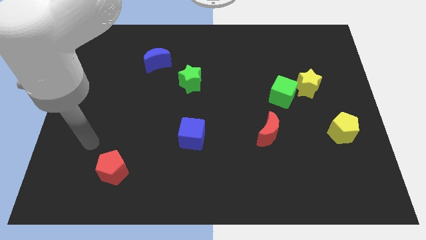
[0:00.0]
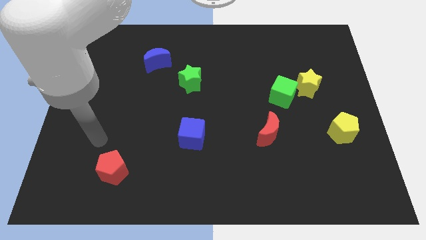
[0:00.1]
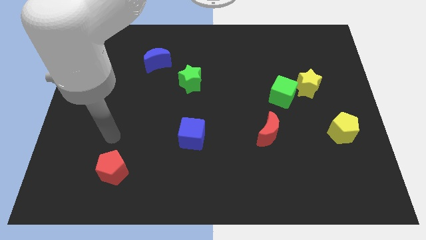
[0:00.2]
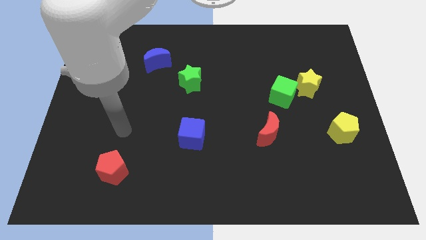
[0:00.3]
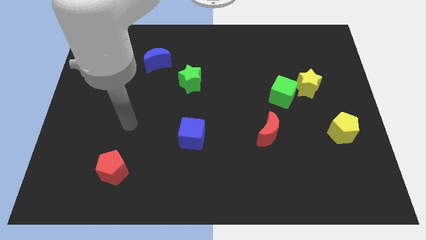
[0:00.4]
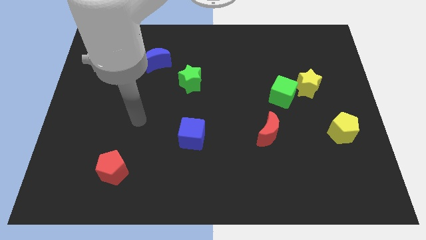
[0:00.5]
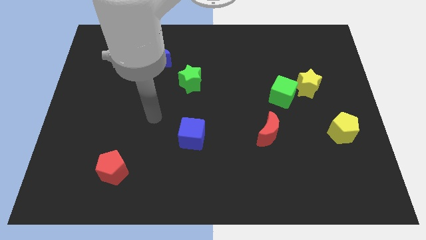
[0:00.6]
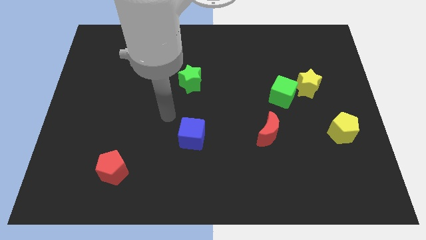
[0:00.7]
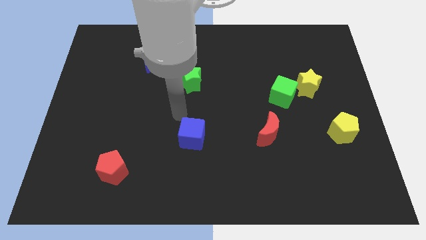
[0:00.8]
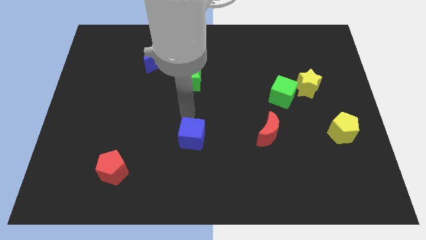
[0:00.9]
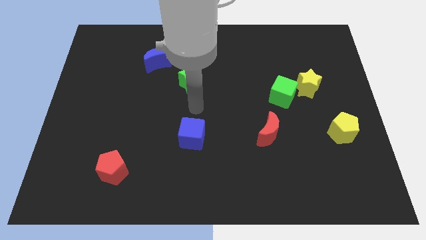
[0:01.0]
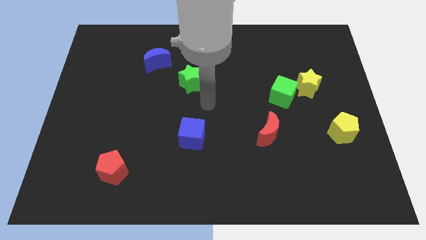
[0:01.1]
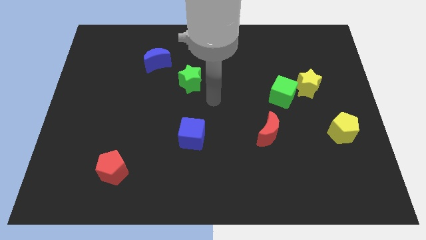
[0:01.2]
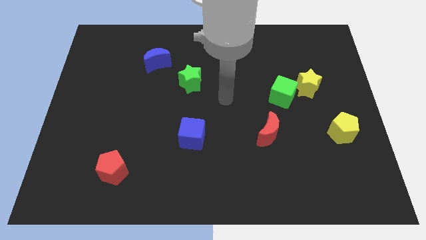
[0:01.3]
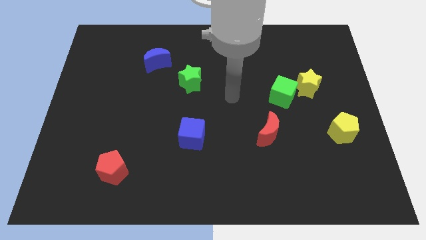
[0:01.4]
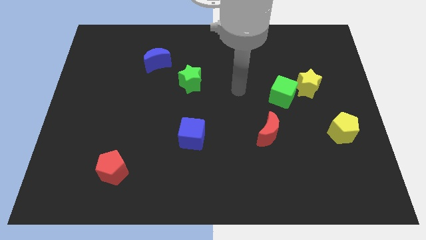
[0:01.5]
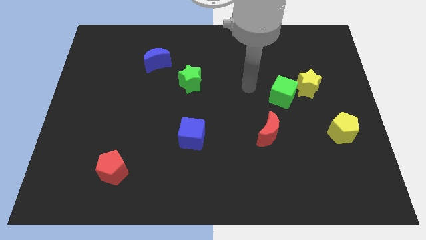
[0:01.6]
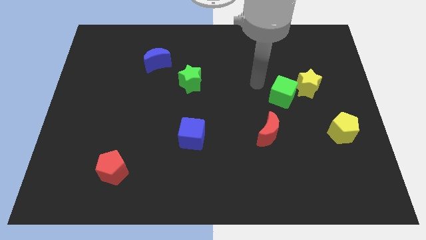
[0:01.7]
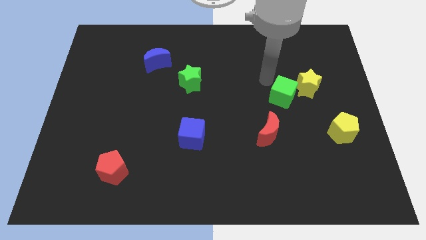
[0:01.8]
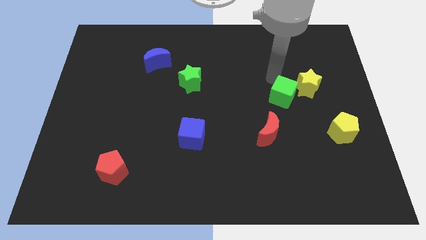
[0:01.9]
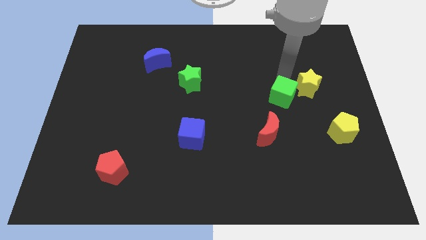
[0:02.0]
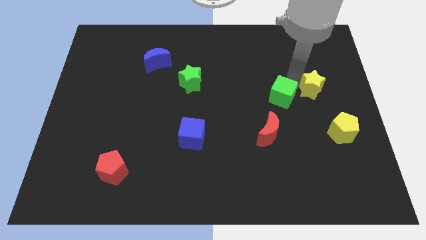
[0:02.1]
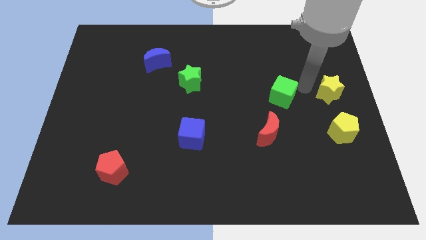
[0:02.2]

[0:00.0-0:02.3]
separate the green cube from the yellow star

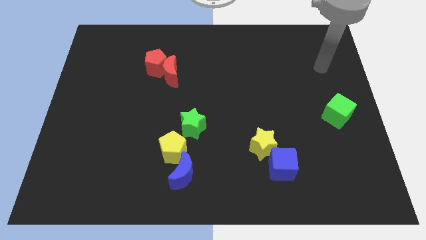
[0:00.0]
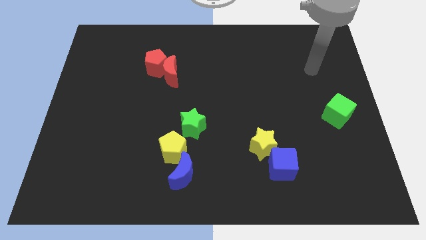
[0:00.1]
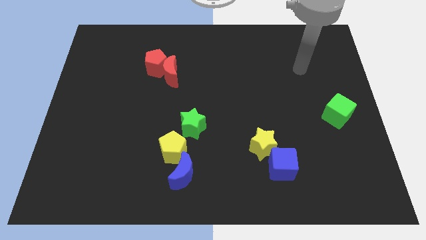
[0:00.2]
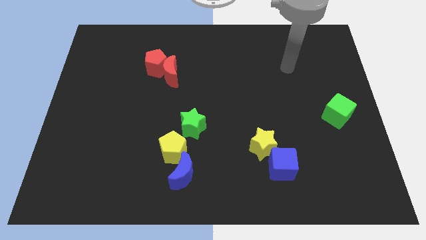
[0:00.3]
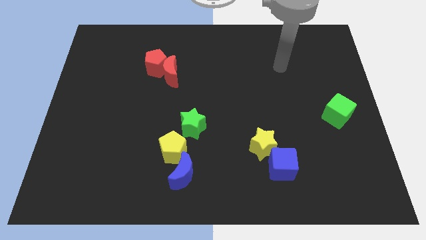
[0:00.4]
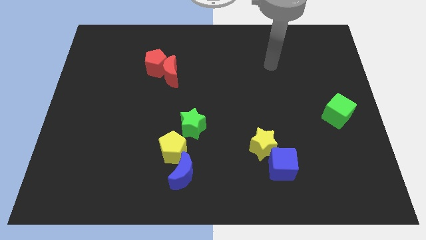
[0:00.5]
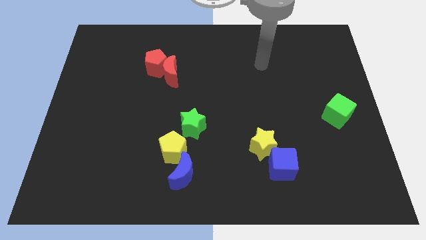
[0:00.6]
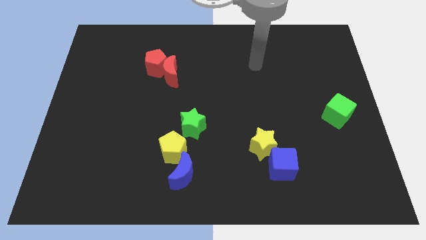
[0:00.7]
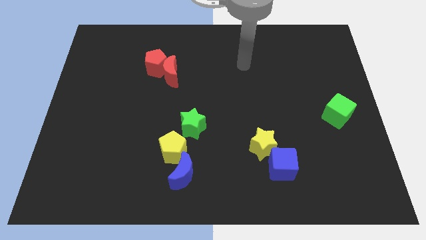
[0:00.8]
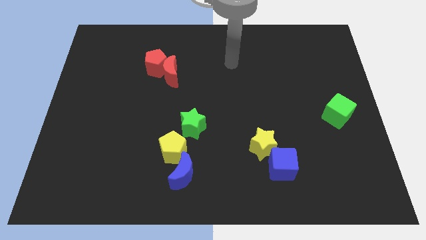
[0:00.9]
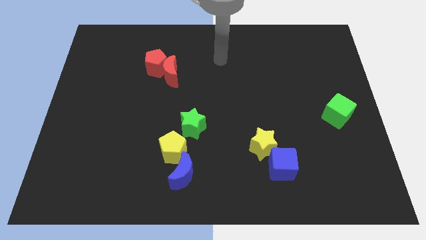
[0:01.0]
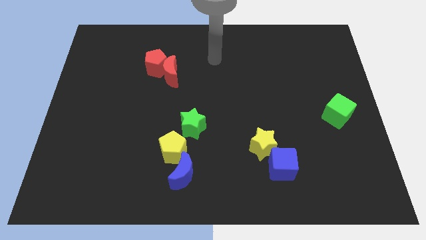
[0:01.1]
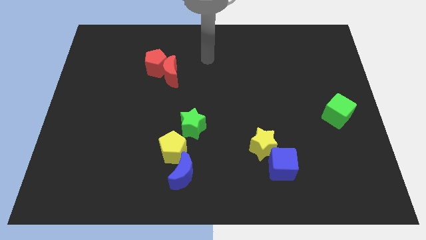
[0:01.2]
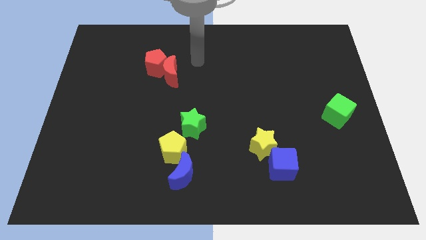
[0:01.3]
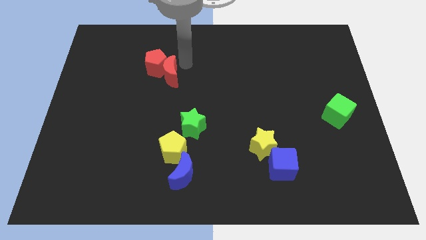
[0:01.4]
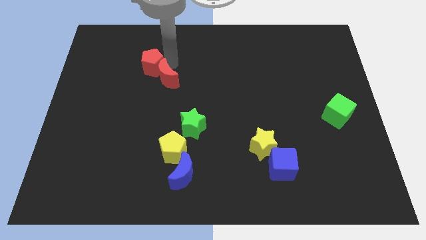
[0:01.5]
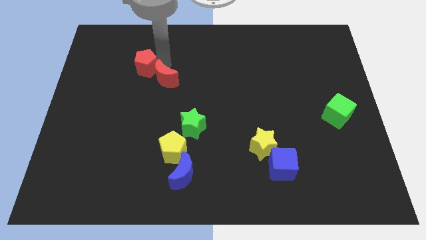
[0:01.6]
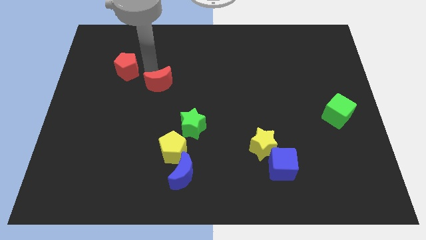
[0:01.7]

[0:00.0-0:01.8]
move the red moon away from the red pentagon

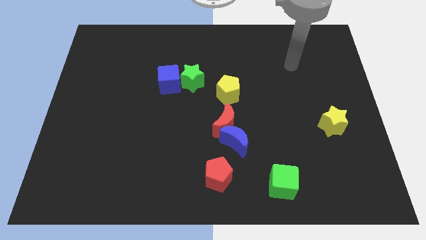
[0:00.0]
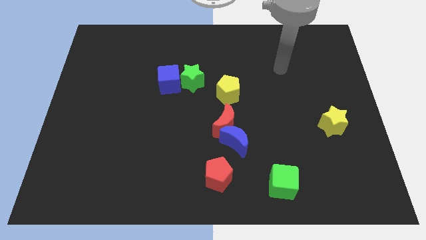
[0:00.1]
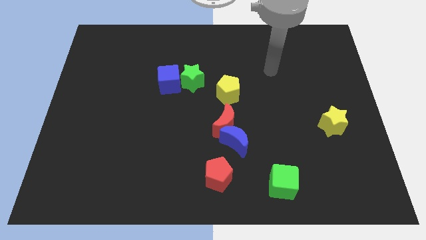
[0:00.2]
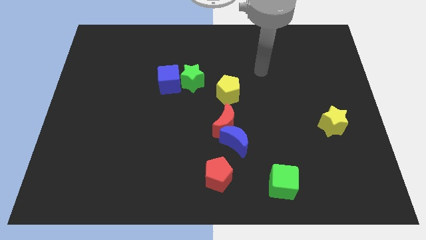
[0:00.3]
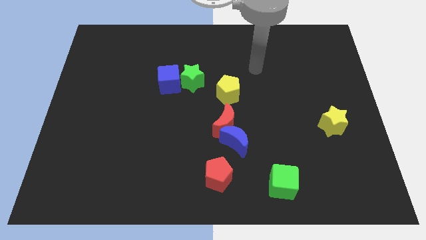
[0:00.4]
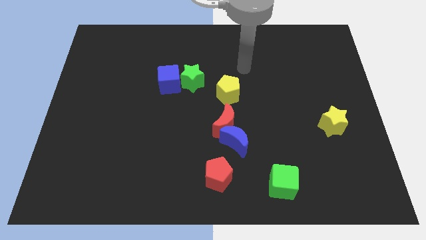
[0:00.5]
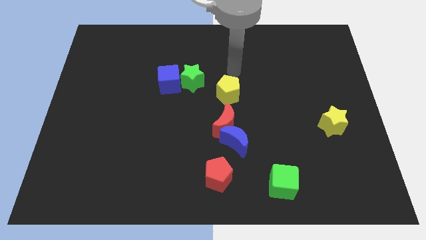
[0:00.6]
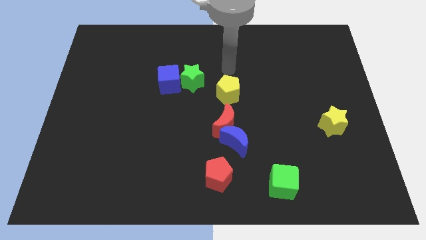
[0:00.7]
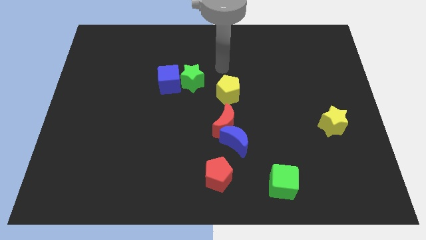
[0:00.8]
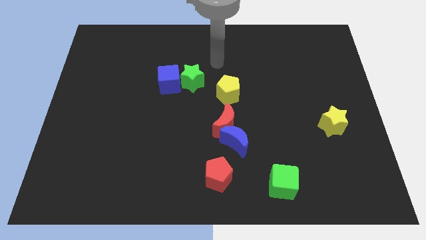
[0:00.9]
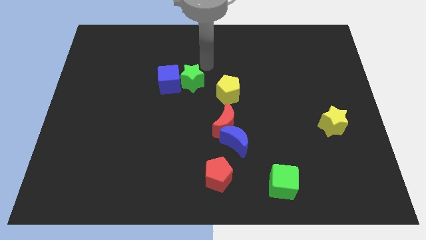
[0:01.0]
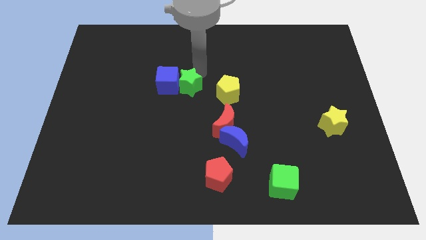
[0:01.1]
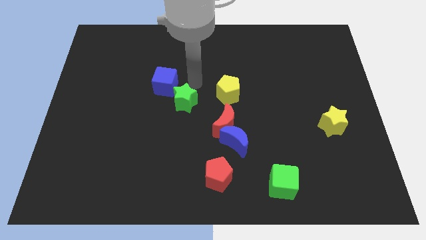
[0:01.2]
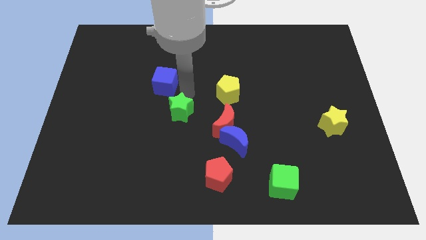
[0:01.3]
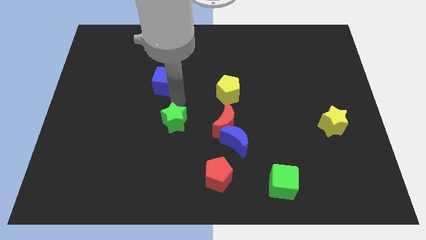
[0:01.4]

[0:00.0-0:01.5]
separate the blue cube from the green star

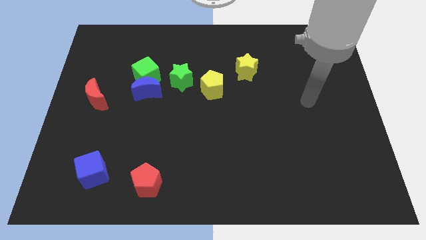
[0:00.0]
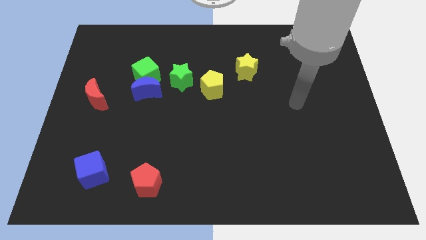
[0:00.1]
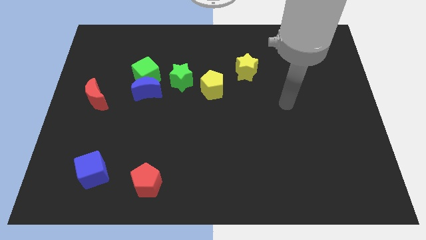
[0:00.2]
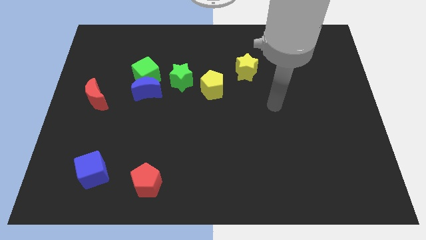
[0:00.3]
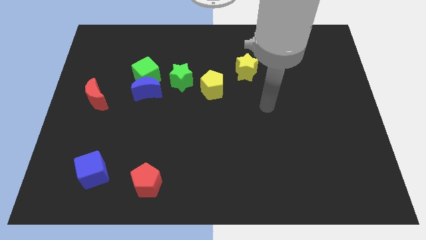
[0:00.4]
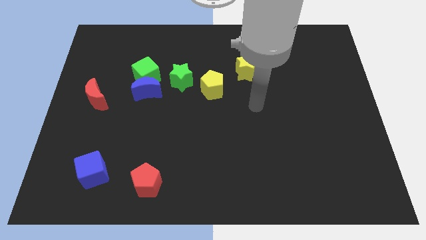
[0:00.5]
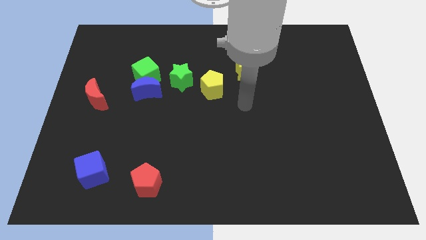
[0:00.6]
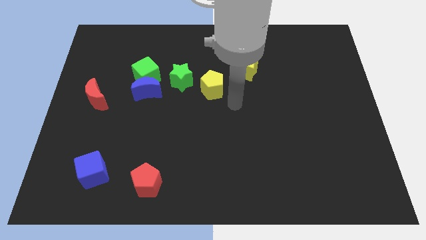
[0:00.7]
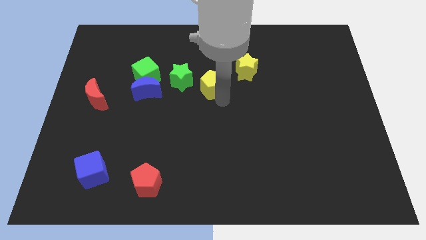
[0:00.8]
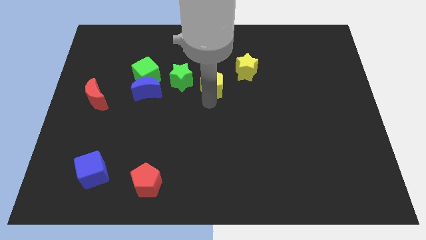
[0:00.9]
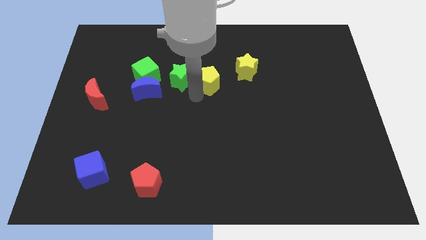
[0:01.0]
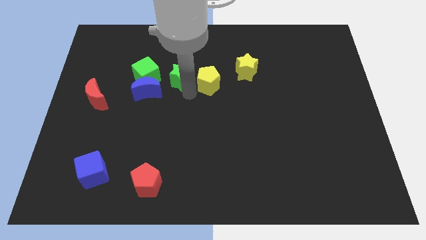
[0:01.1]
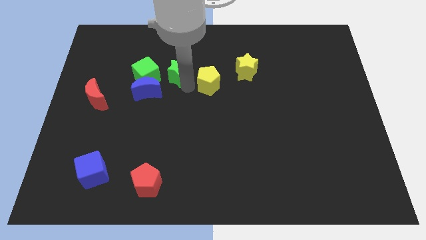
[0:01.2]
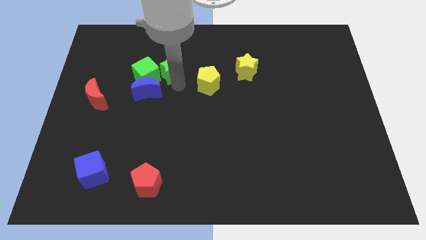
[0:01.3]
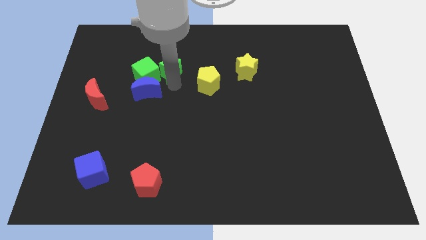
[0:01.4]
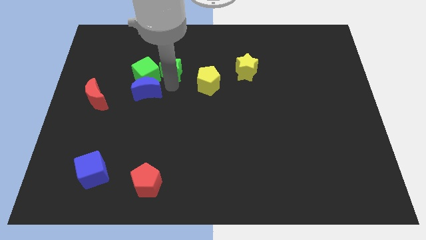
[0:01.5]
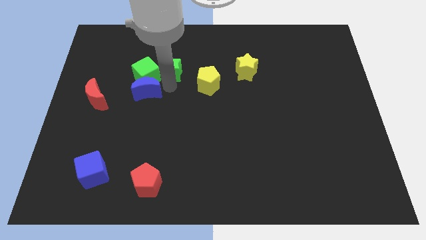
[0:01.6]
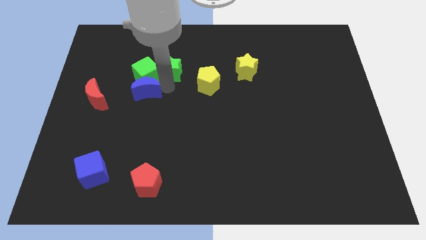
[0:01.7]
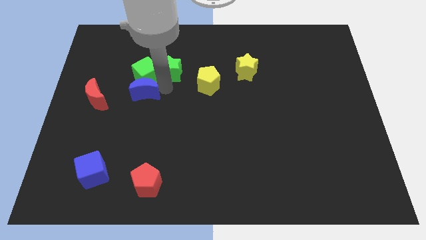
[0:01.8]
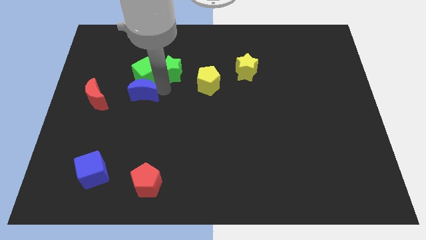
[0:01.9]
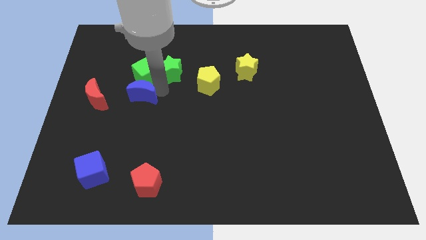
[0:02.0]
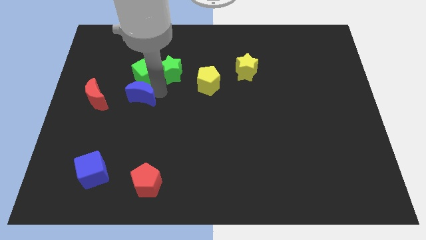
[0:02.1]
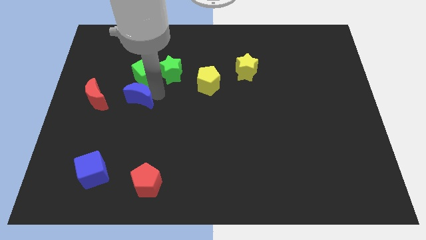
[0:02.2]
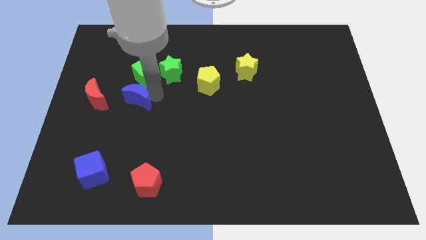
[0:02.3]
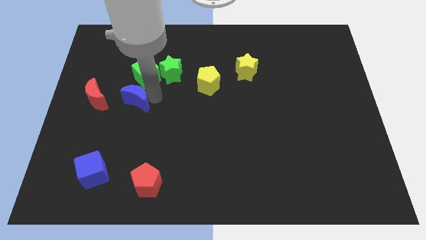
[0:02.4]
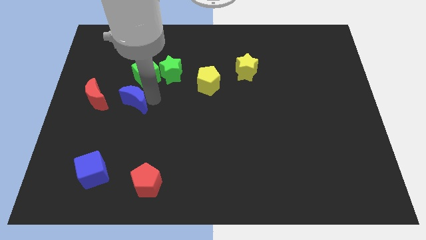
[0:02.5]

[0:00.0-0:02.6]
move the blue moon away from the green cube and green star

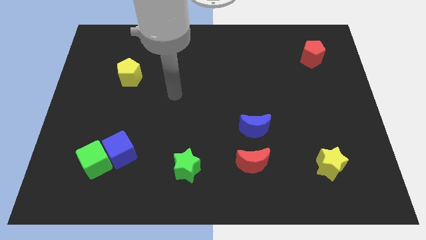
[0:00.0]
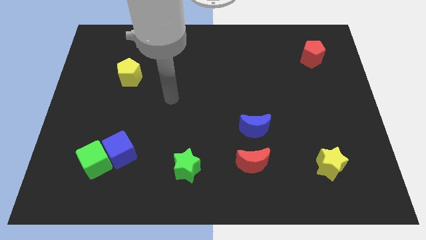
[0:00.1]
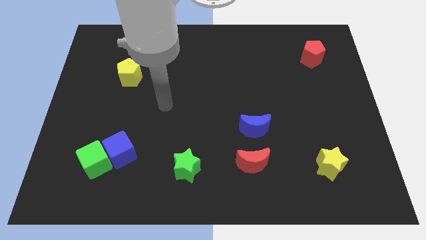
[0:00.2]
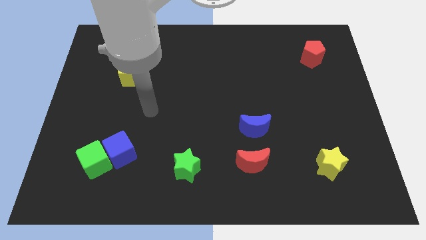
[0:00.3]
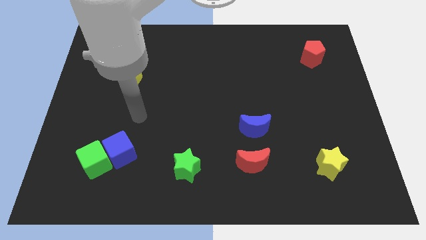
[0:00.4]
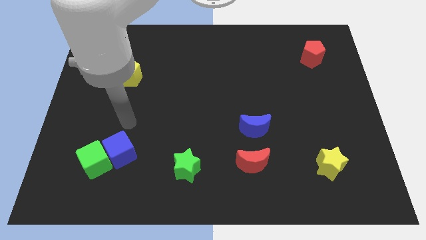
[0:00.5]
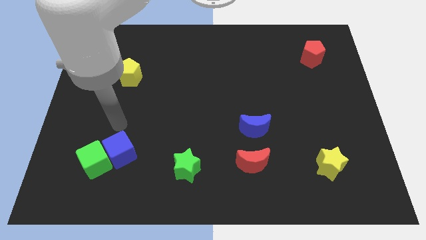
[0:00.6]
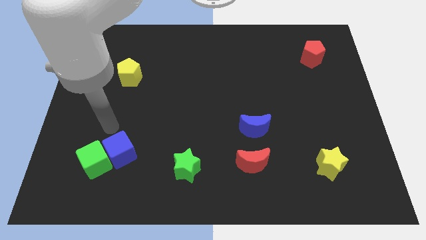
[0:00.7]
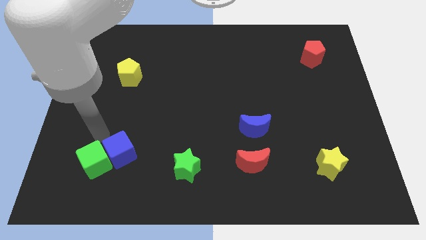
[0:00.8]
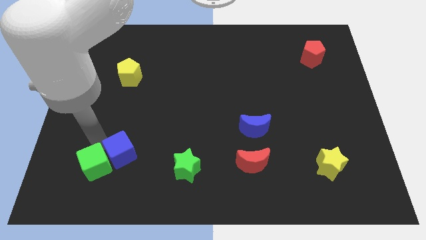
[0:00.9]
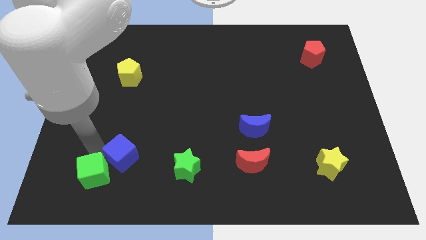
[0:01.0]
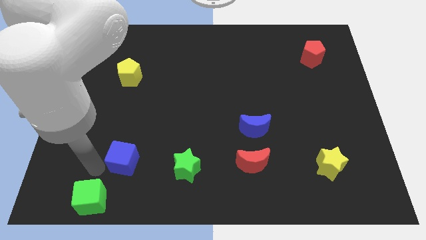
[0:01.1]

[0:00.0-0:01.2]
separate the blue cube from the green cube
